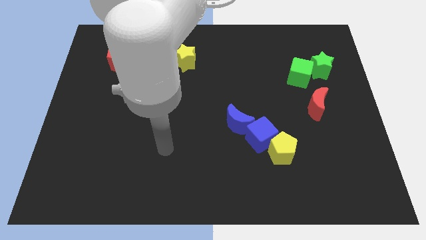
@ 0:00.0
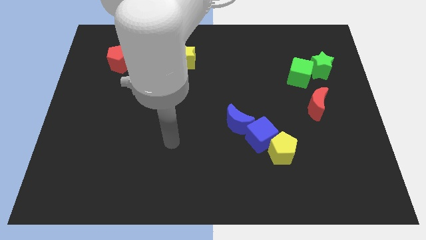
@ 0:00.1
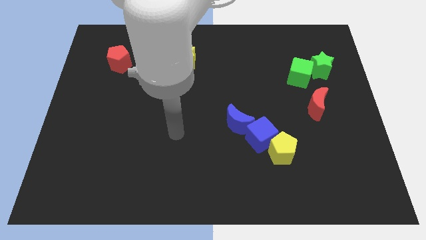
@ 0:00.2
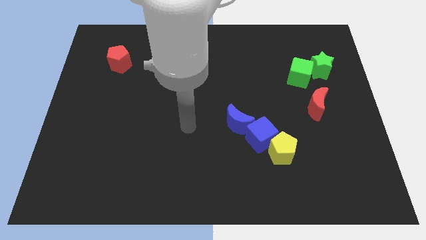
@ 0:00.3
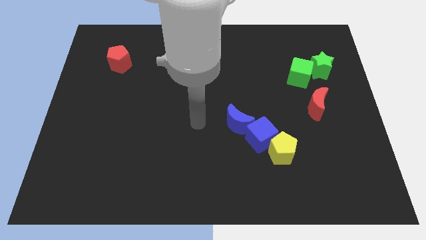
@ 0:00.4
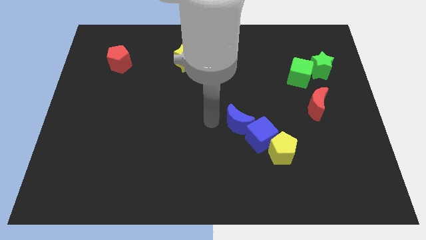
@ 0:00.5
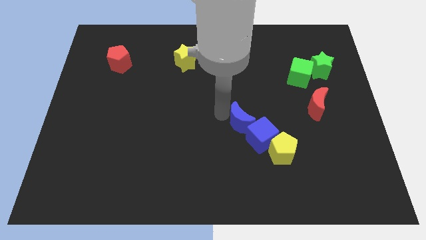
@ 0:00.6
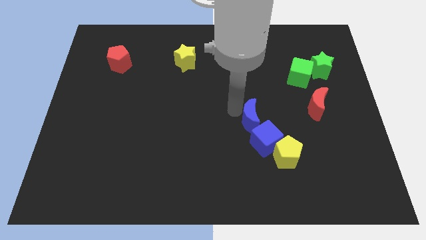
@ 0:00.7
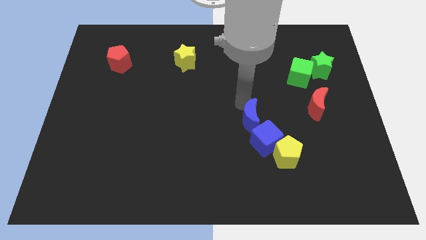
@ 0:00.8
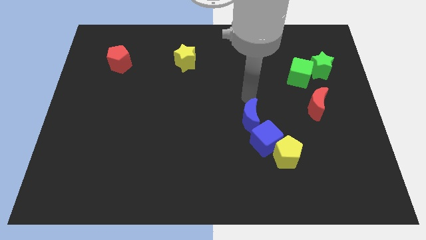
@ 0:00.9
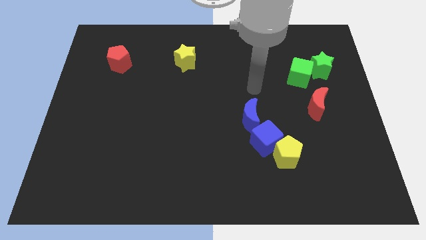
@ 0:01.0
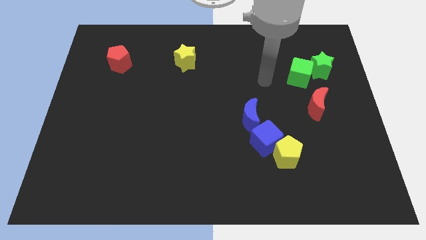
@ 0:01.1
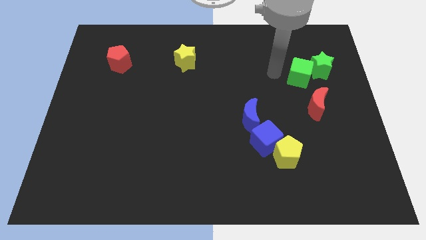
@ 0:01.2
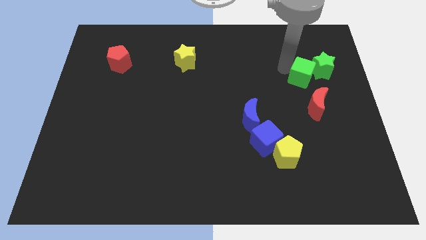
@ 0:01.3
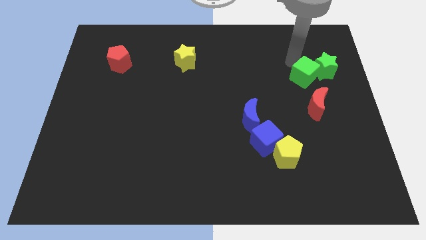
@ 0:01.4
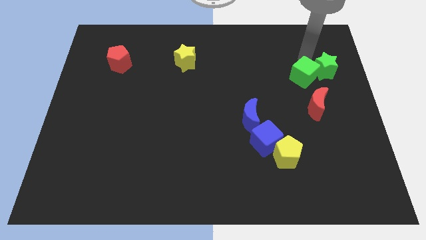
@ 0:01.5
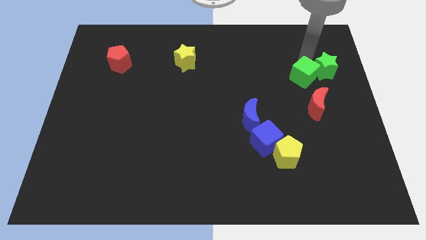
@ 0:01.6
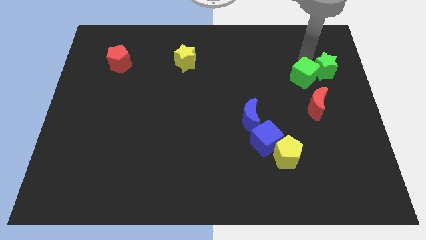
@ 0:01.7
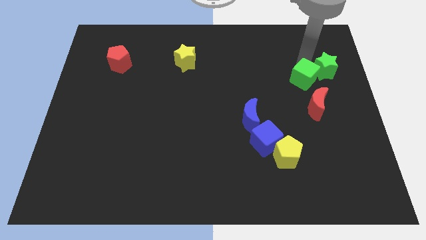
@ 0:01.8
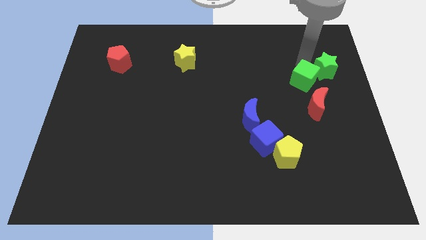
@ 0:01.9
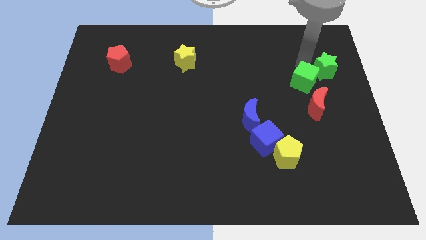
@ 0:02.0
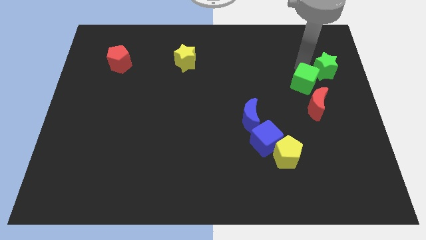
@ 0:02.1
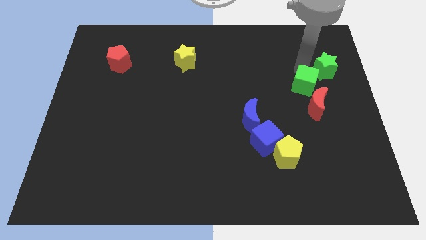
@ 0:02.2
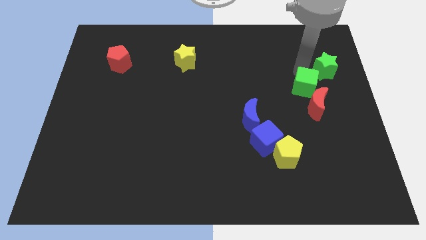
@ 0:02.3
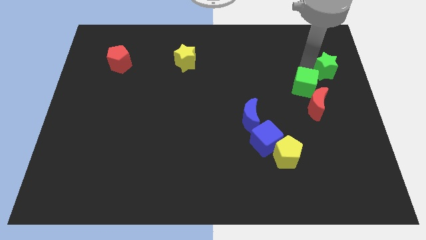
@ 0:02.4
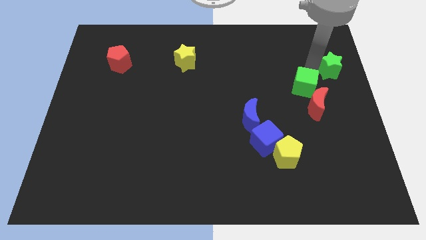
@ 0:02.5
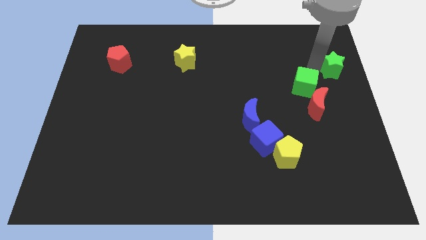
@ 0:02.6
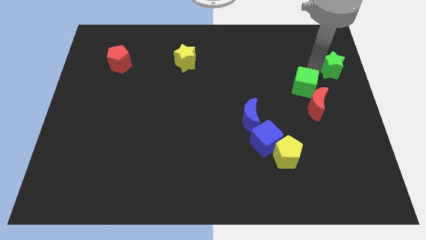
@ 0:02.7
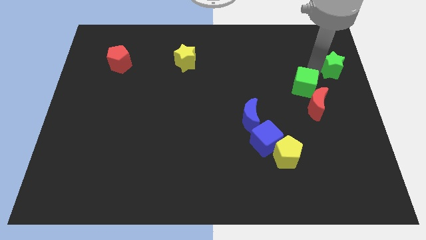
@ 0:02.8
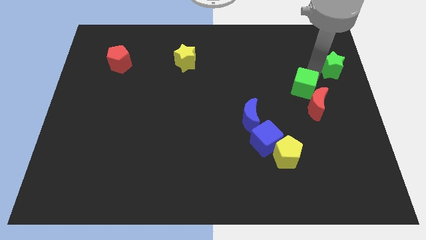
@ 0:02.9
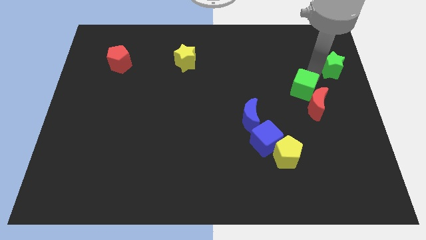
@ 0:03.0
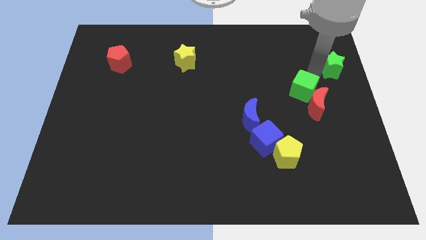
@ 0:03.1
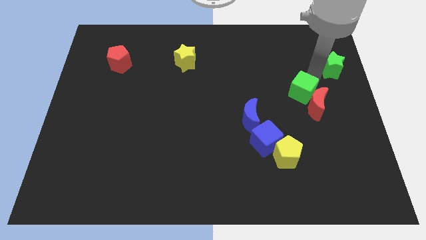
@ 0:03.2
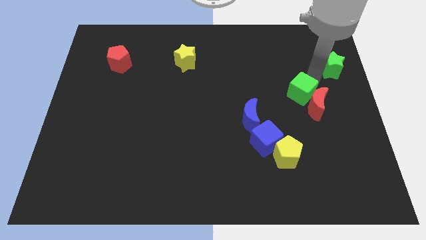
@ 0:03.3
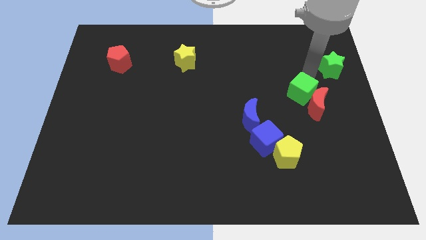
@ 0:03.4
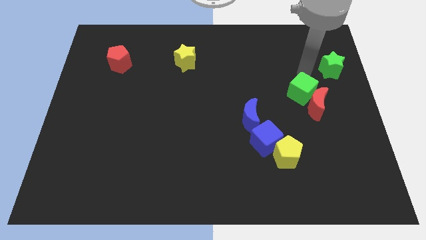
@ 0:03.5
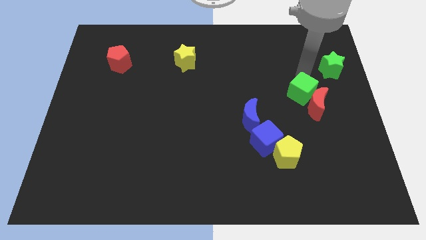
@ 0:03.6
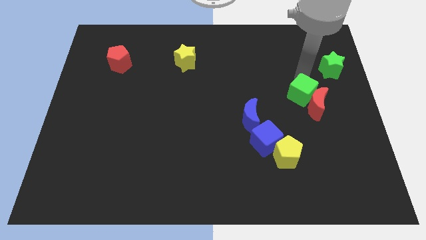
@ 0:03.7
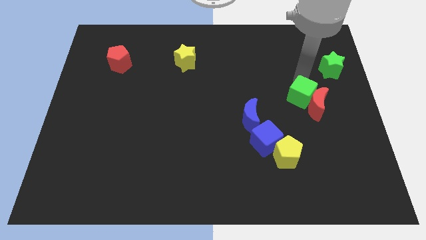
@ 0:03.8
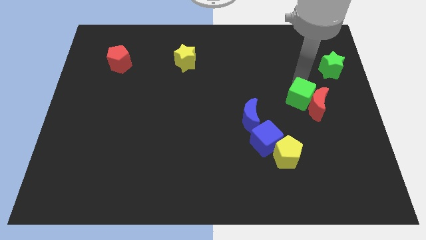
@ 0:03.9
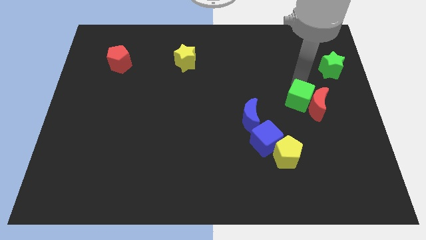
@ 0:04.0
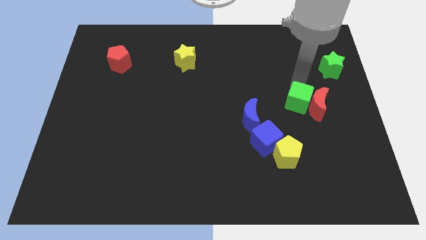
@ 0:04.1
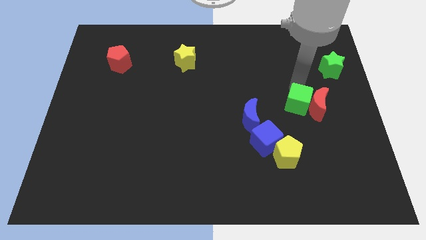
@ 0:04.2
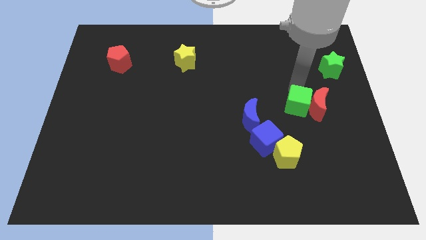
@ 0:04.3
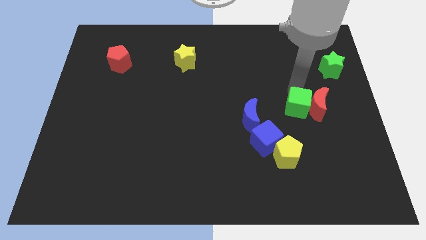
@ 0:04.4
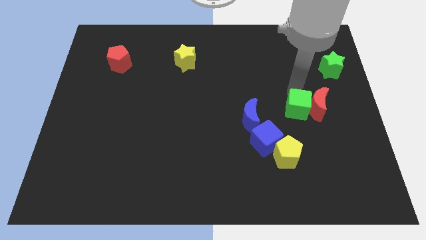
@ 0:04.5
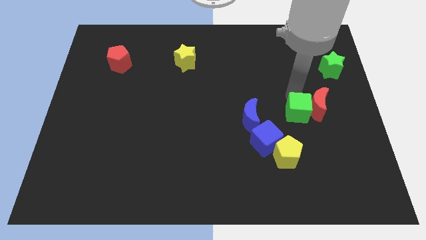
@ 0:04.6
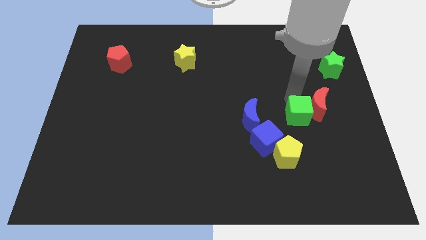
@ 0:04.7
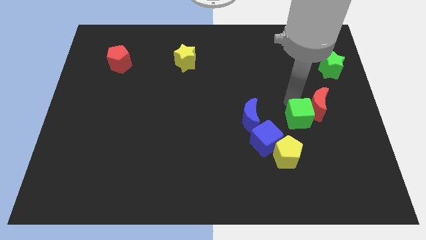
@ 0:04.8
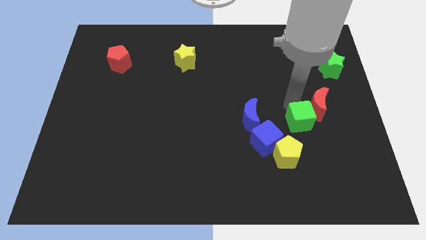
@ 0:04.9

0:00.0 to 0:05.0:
put the green cube below the red moon

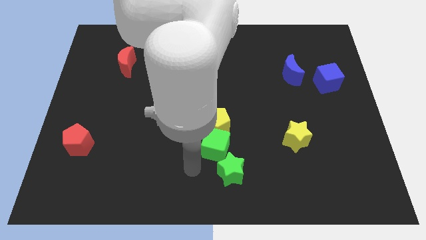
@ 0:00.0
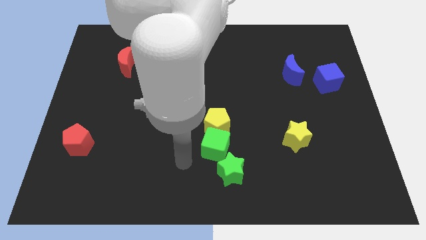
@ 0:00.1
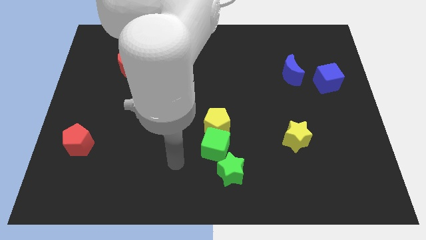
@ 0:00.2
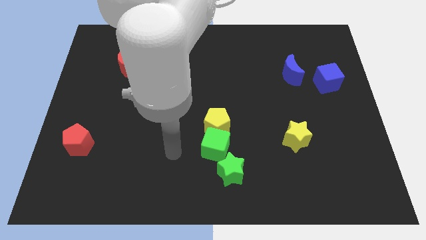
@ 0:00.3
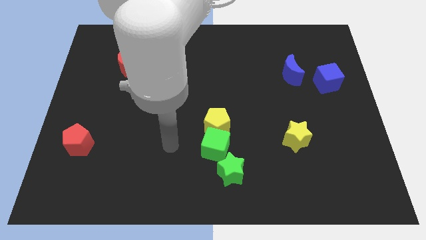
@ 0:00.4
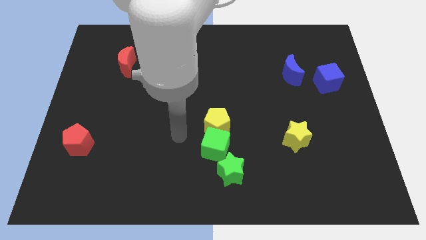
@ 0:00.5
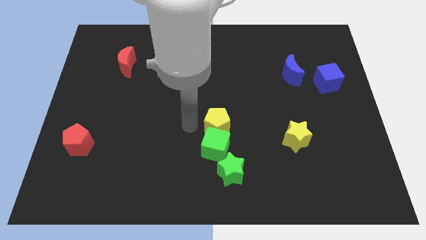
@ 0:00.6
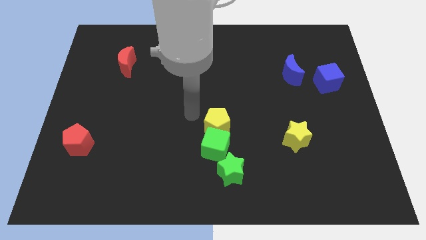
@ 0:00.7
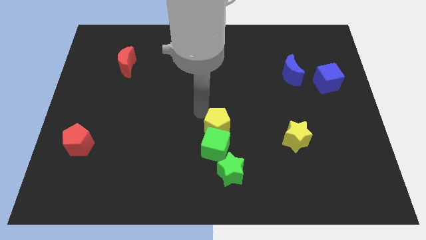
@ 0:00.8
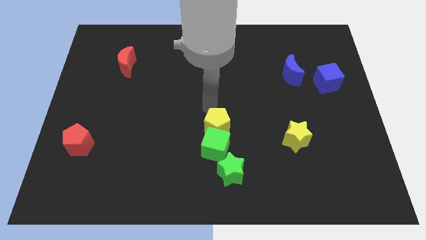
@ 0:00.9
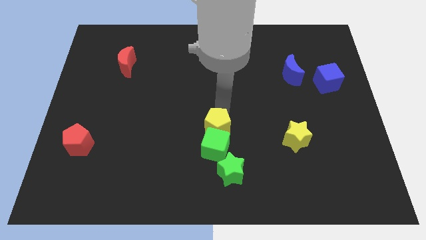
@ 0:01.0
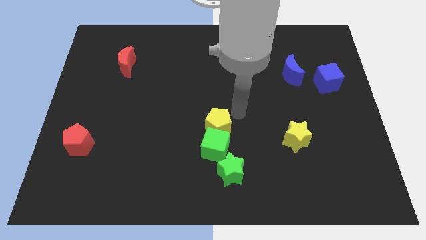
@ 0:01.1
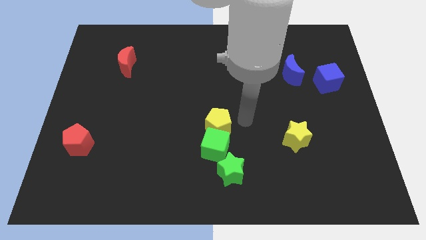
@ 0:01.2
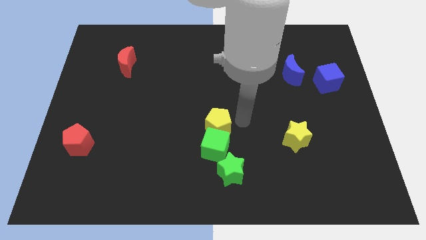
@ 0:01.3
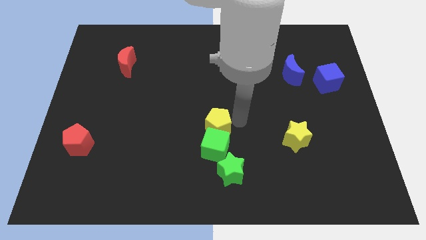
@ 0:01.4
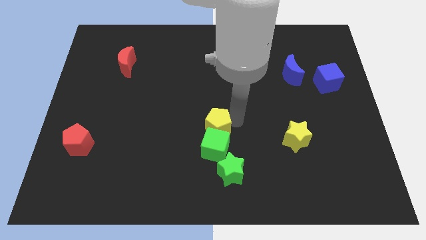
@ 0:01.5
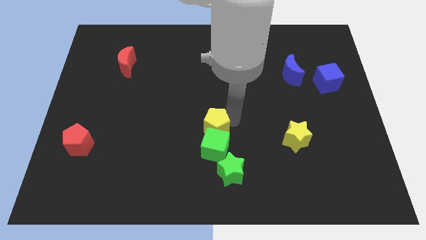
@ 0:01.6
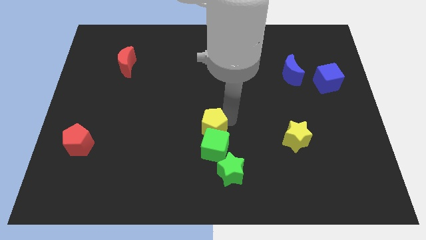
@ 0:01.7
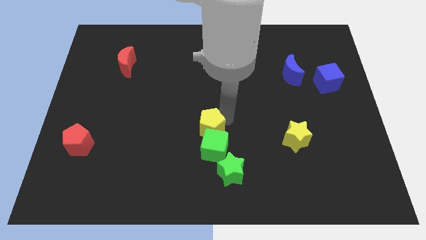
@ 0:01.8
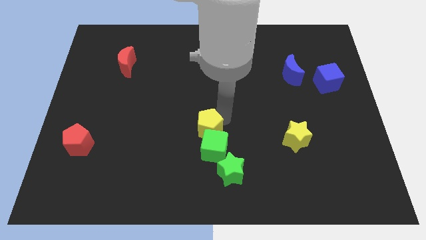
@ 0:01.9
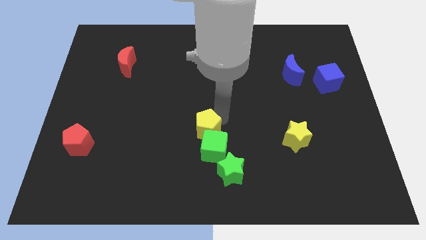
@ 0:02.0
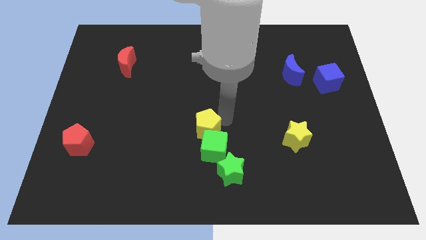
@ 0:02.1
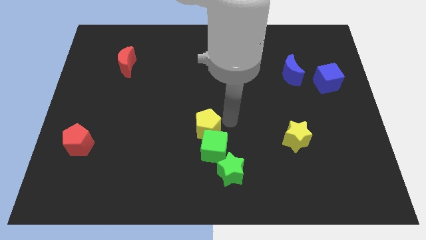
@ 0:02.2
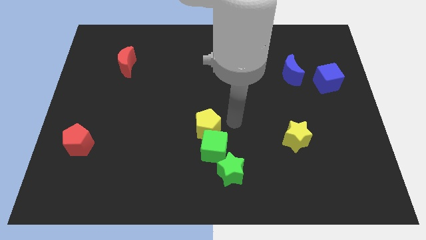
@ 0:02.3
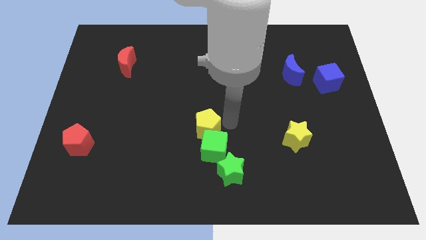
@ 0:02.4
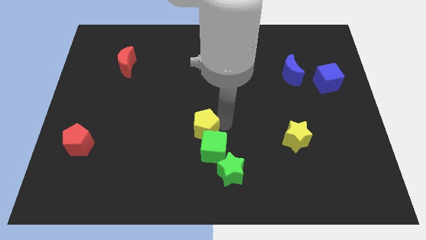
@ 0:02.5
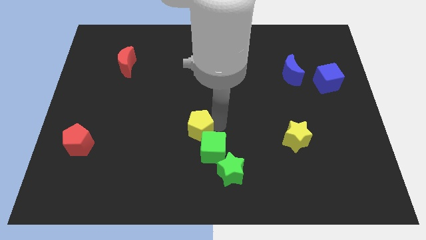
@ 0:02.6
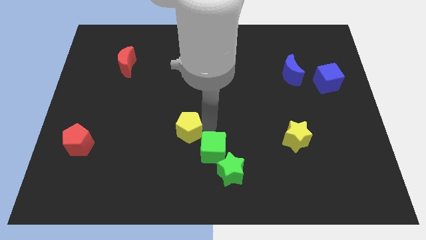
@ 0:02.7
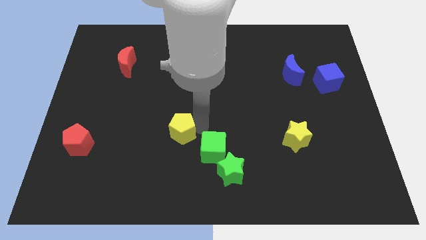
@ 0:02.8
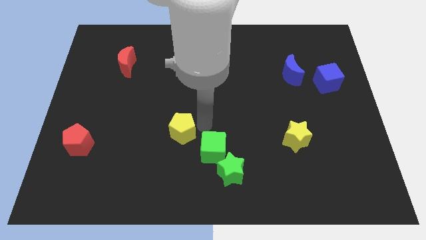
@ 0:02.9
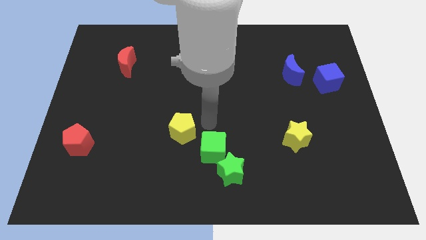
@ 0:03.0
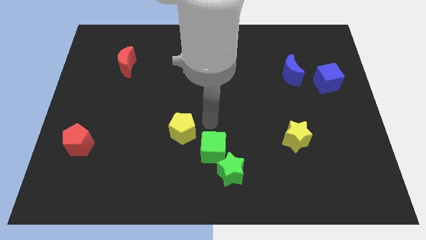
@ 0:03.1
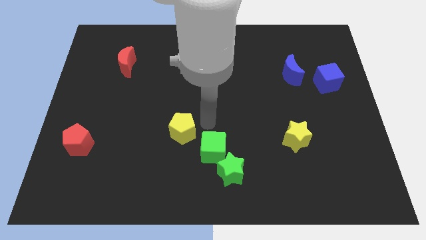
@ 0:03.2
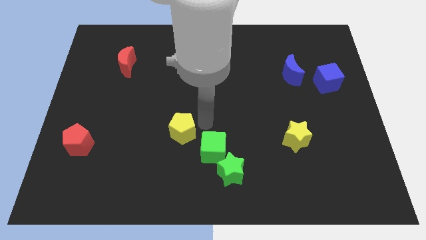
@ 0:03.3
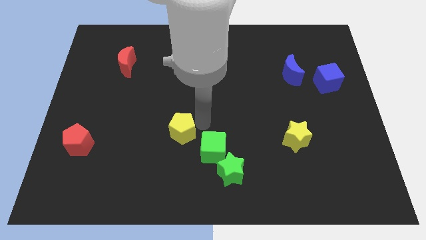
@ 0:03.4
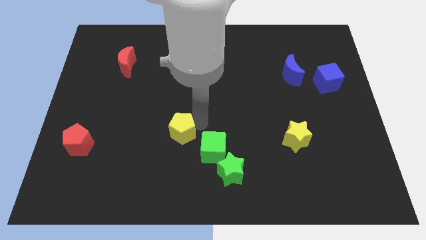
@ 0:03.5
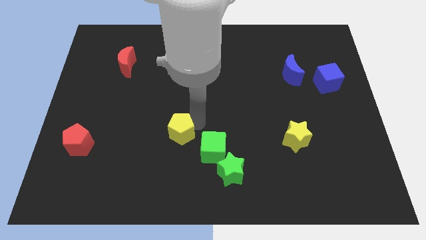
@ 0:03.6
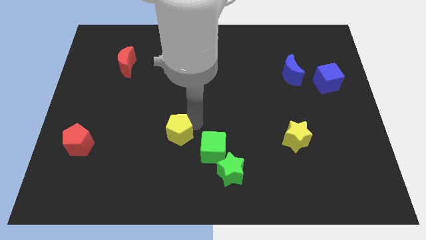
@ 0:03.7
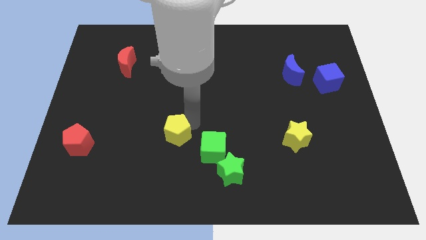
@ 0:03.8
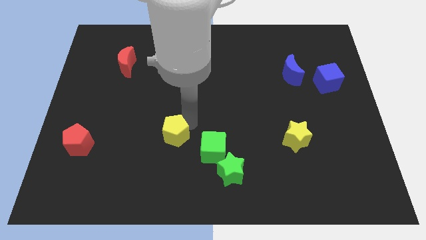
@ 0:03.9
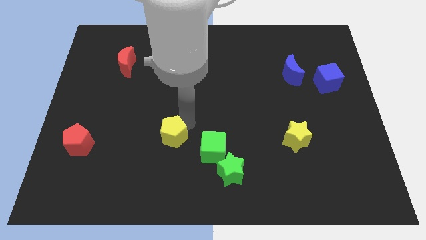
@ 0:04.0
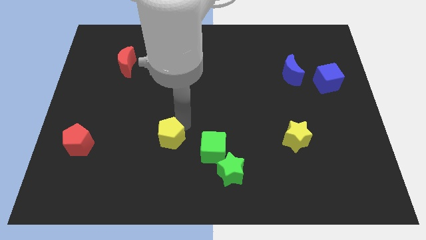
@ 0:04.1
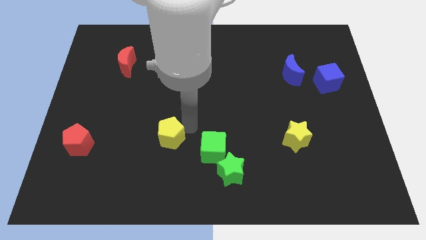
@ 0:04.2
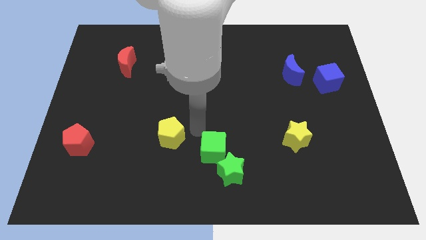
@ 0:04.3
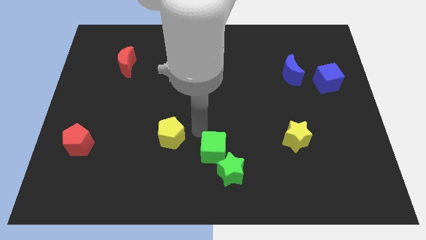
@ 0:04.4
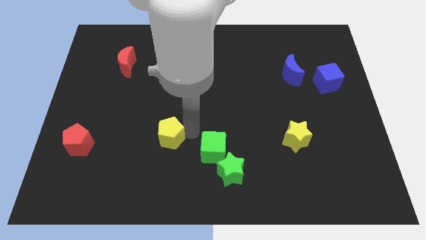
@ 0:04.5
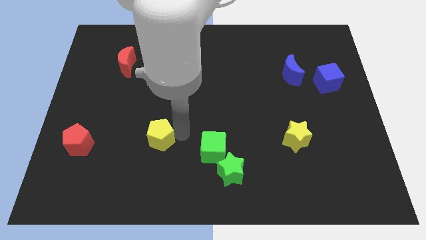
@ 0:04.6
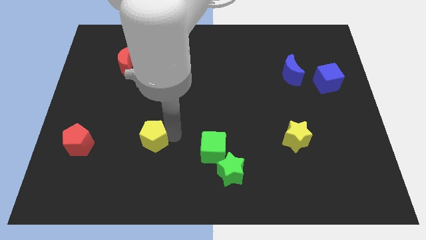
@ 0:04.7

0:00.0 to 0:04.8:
put the yellow pentagon just right of the red pentagon
